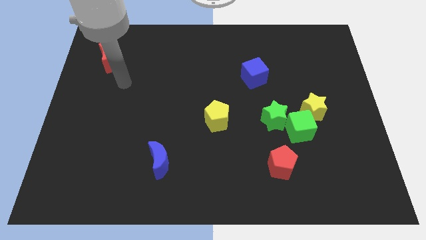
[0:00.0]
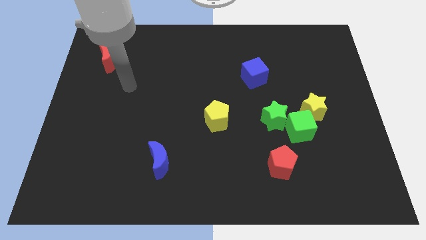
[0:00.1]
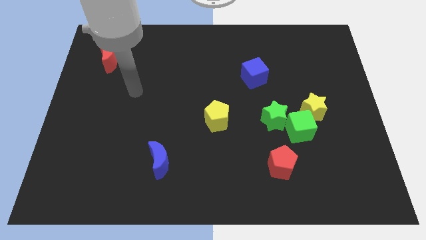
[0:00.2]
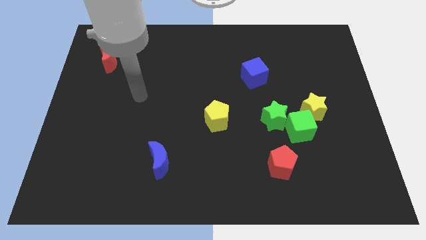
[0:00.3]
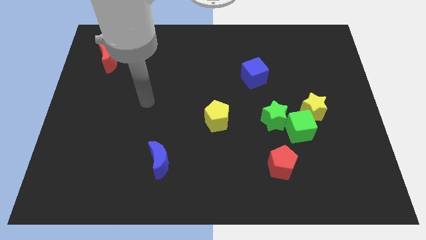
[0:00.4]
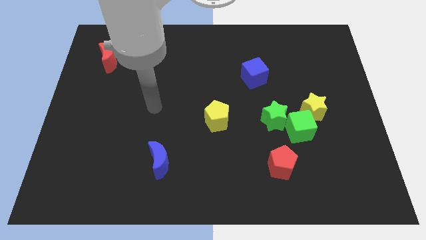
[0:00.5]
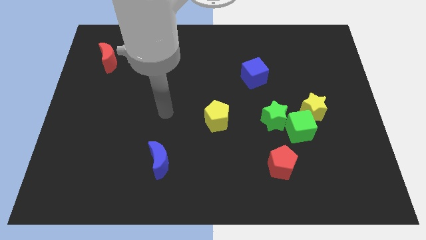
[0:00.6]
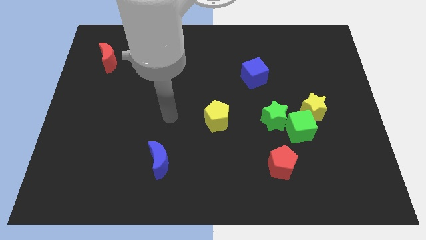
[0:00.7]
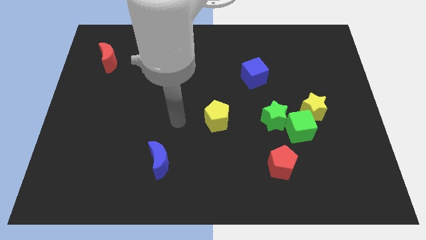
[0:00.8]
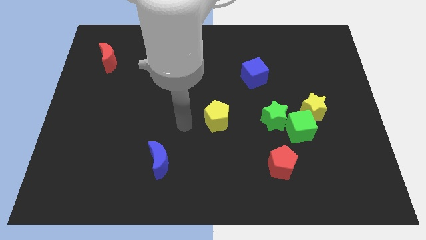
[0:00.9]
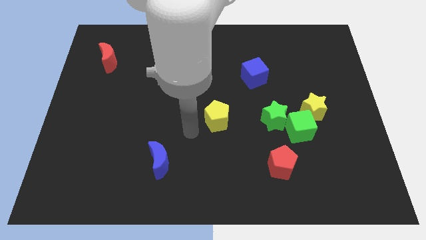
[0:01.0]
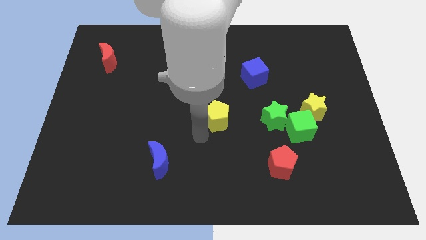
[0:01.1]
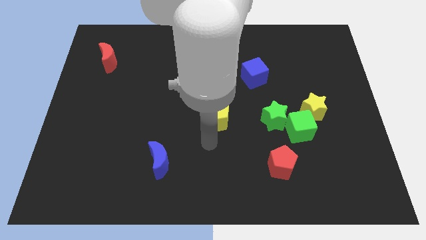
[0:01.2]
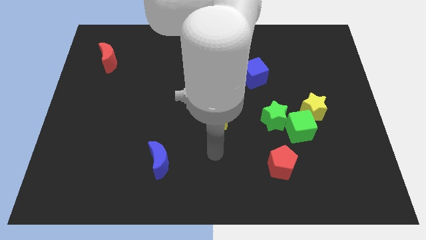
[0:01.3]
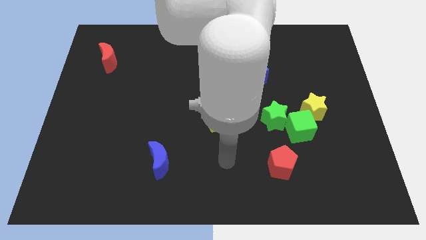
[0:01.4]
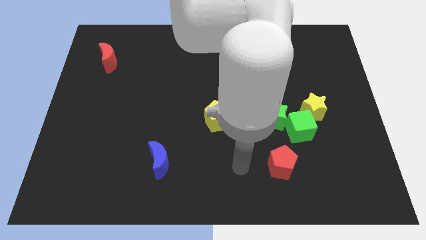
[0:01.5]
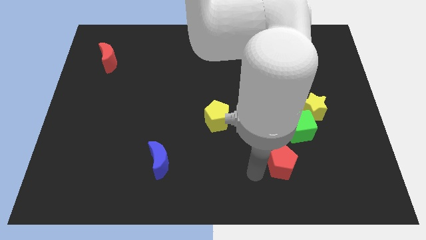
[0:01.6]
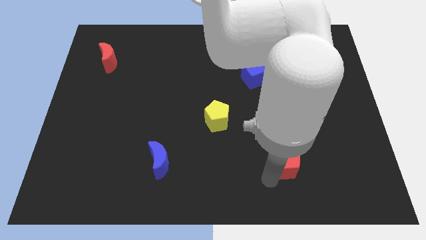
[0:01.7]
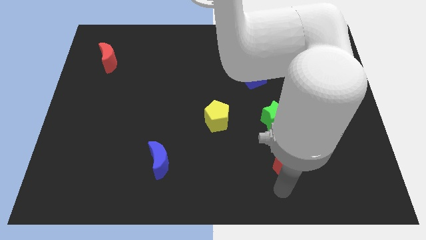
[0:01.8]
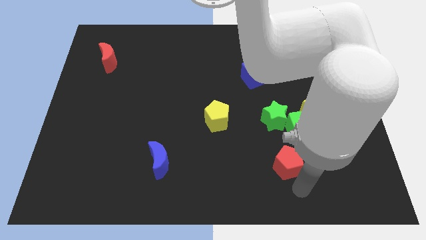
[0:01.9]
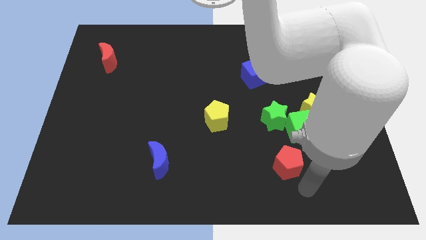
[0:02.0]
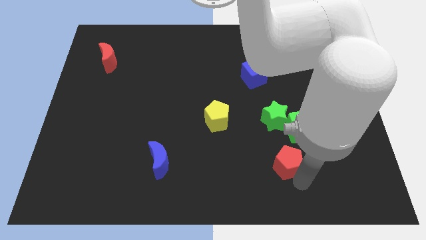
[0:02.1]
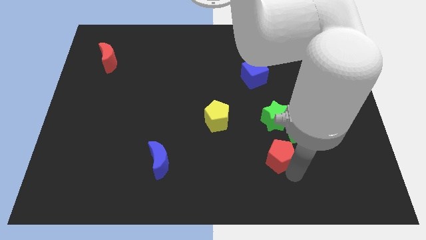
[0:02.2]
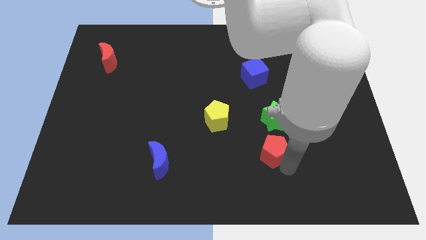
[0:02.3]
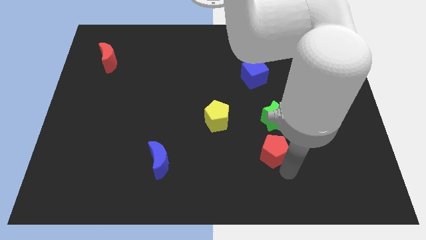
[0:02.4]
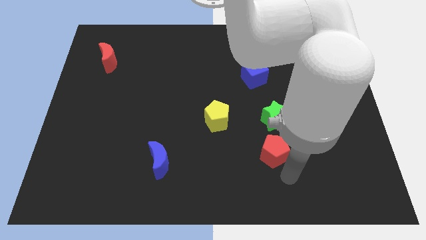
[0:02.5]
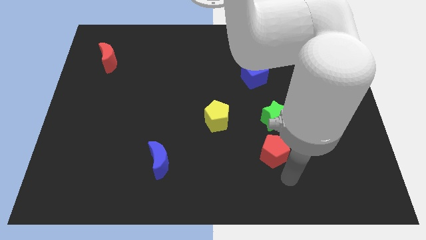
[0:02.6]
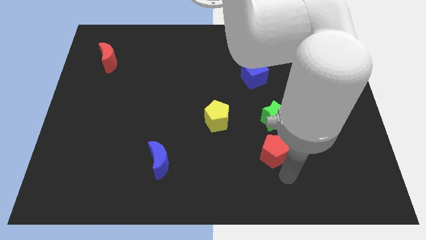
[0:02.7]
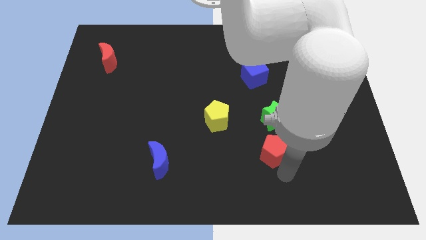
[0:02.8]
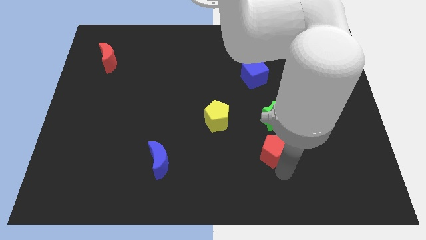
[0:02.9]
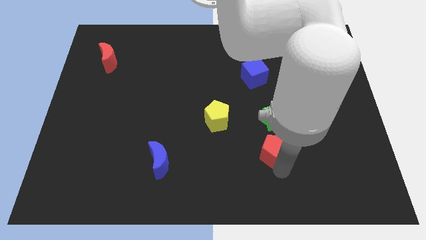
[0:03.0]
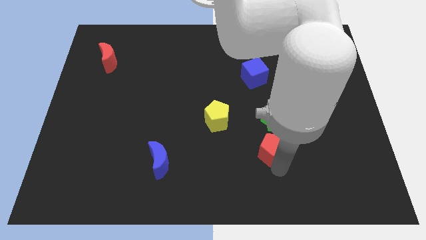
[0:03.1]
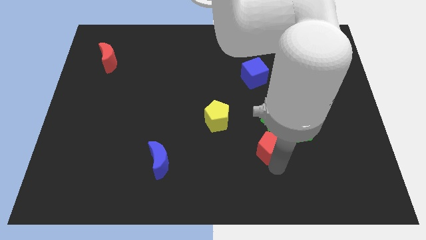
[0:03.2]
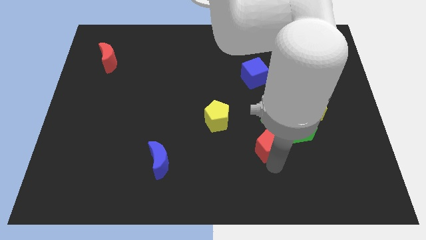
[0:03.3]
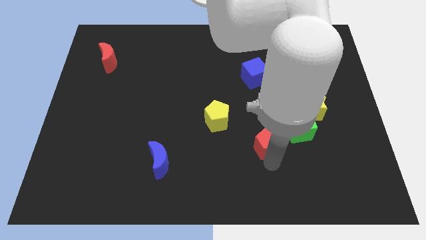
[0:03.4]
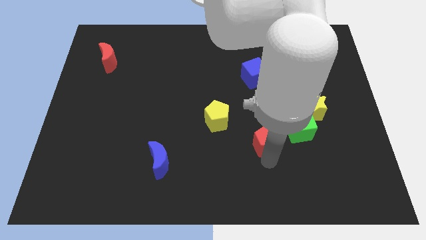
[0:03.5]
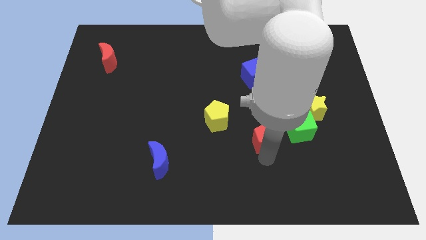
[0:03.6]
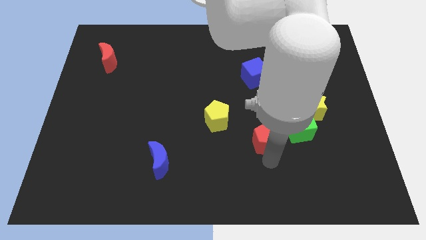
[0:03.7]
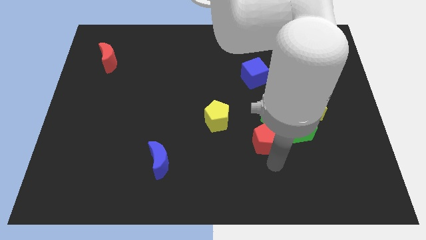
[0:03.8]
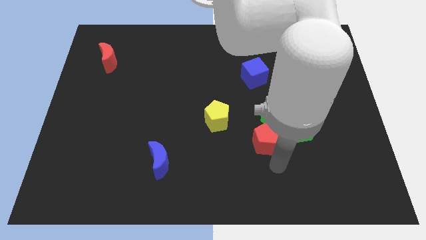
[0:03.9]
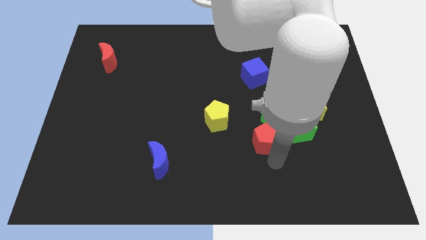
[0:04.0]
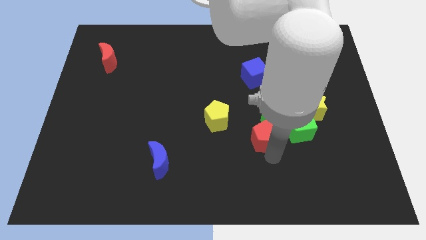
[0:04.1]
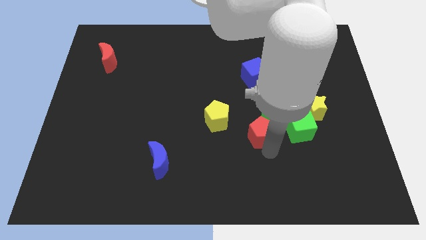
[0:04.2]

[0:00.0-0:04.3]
slightly push the red pentagon up

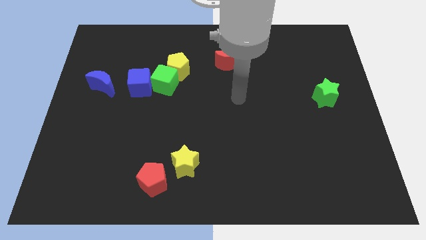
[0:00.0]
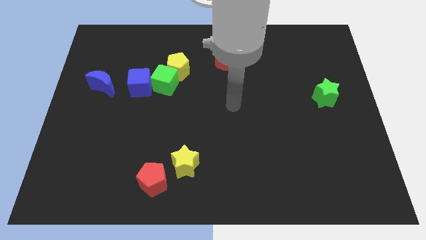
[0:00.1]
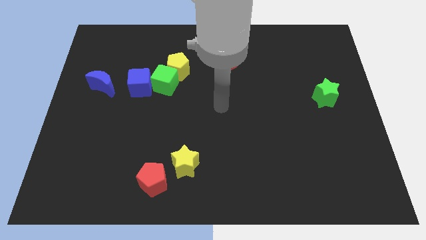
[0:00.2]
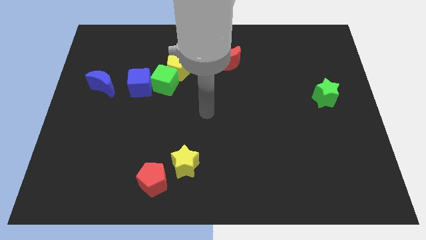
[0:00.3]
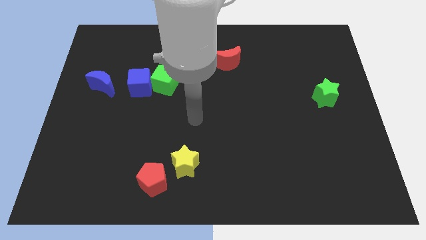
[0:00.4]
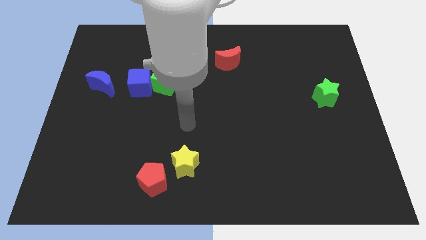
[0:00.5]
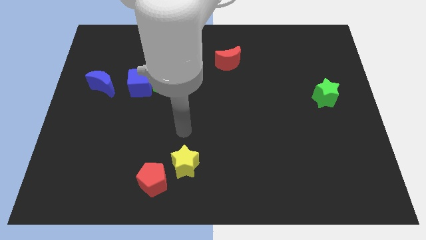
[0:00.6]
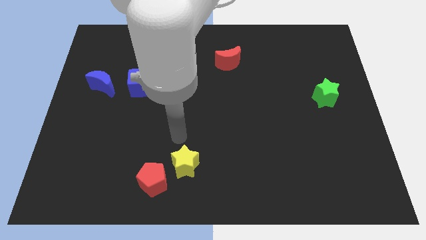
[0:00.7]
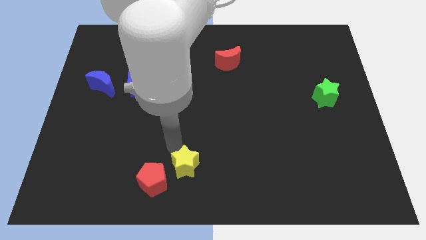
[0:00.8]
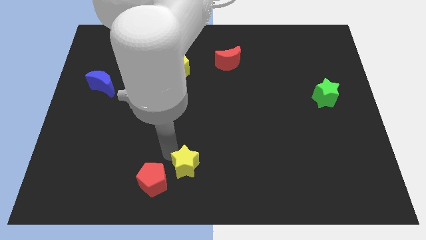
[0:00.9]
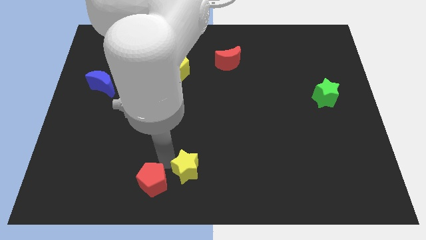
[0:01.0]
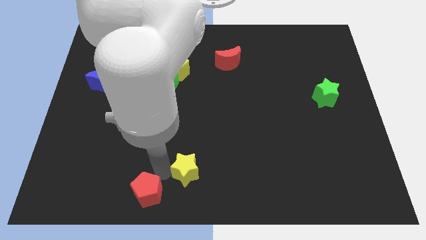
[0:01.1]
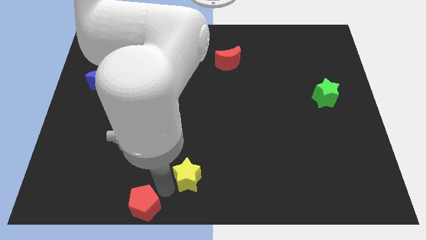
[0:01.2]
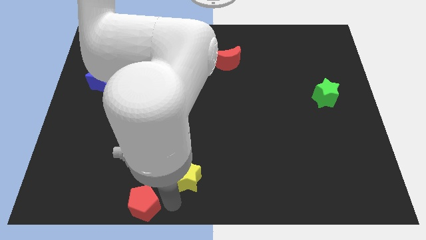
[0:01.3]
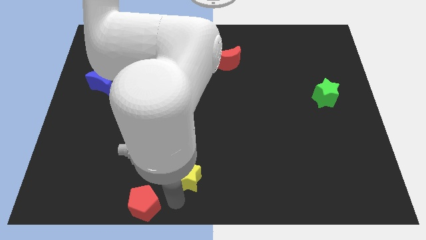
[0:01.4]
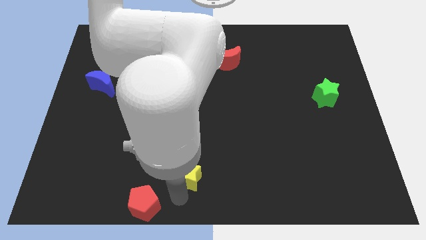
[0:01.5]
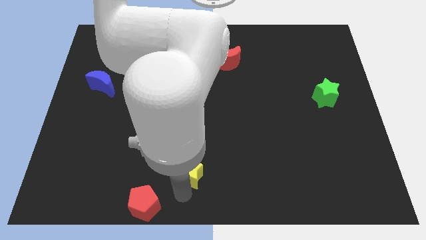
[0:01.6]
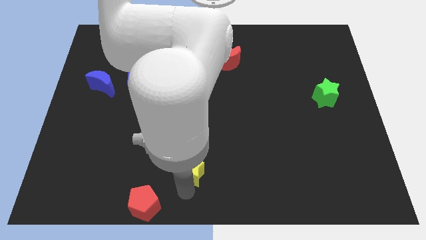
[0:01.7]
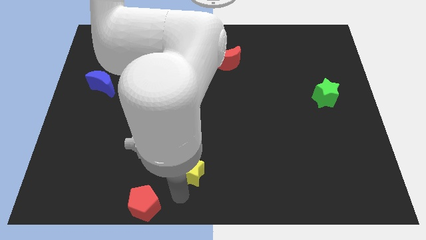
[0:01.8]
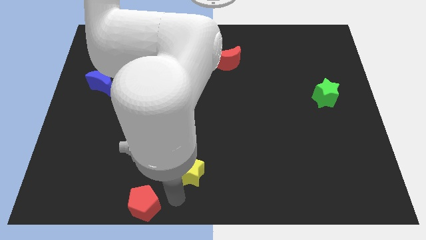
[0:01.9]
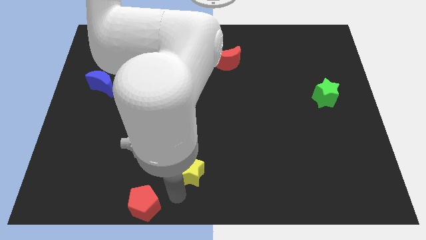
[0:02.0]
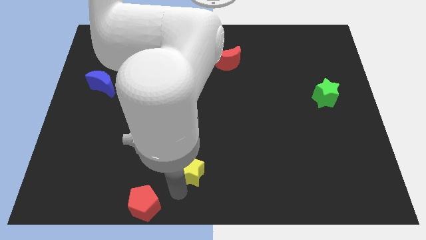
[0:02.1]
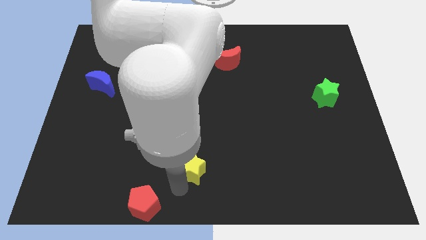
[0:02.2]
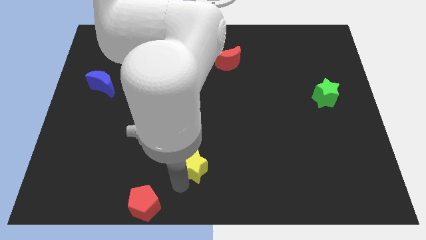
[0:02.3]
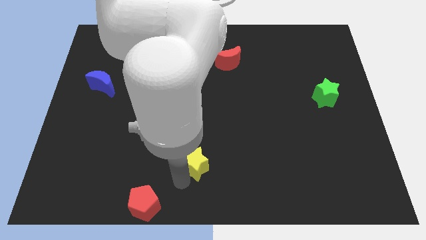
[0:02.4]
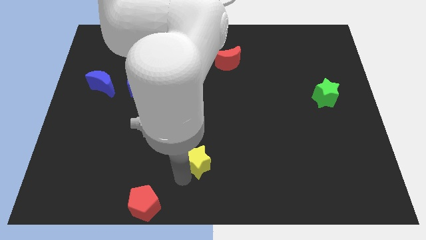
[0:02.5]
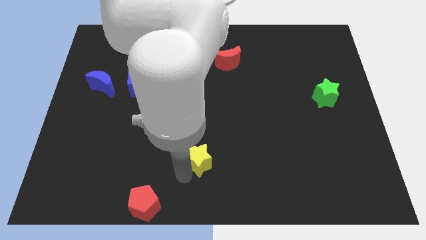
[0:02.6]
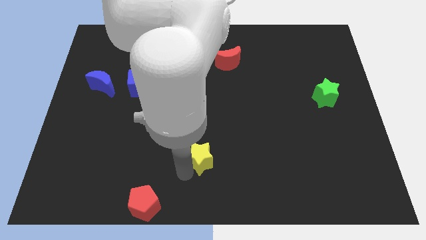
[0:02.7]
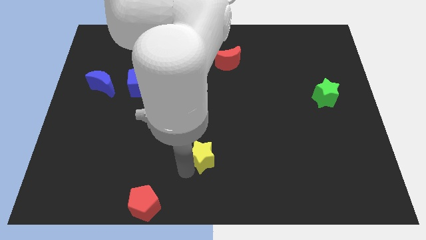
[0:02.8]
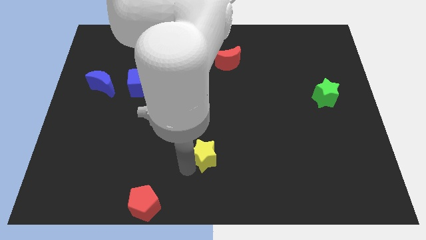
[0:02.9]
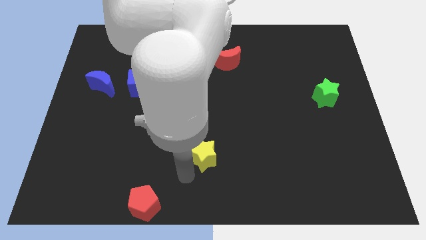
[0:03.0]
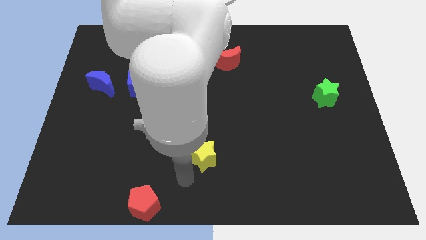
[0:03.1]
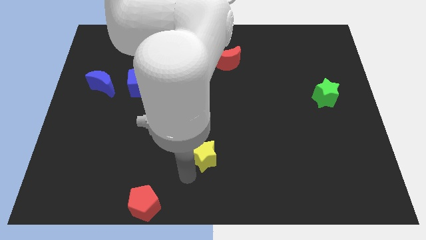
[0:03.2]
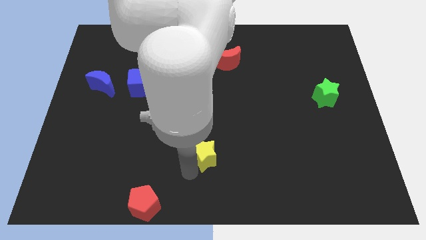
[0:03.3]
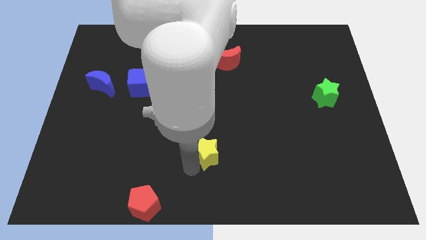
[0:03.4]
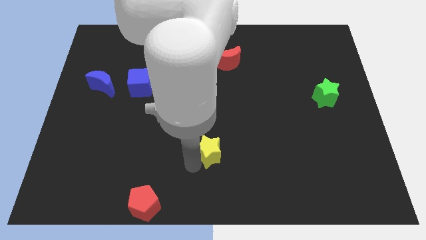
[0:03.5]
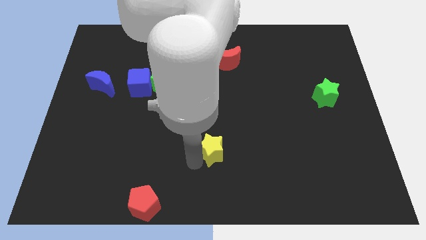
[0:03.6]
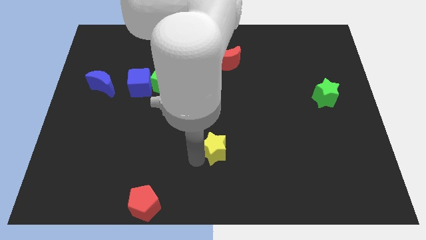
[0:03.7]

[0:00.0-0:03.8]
slightly push the yellow star up and to the right
